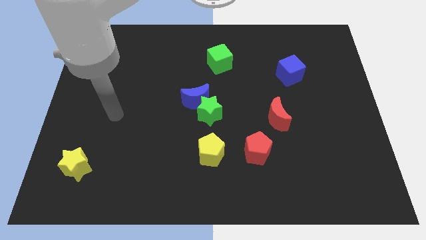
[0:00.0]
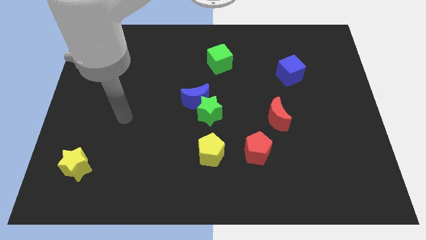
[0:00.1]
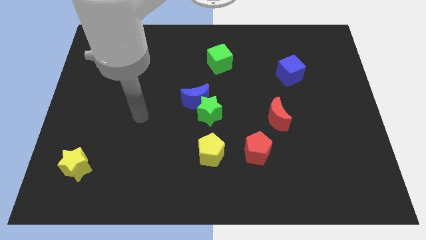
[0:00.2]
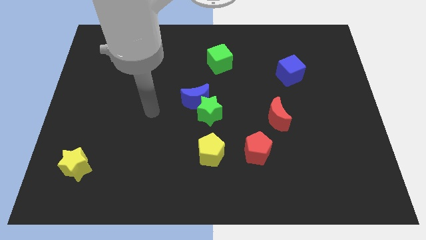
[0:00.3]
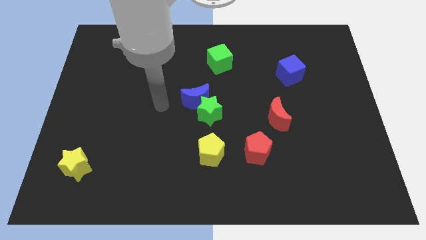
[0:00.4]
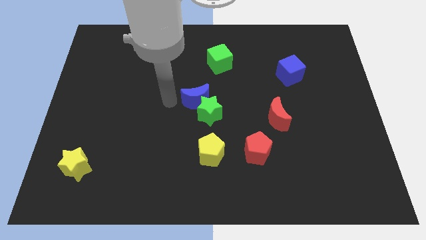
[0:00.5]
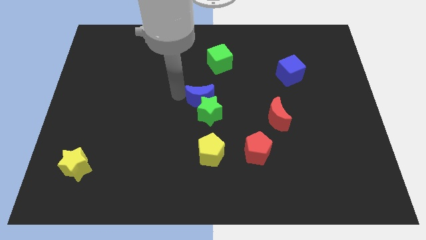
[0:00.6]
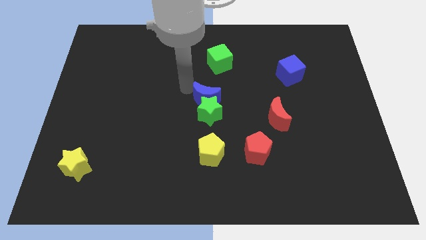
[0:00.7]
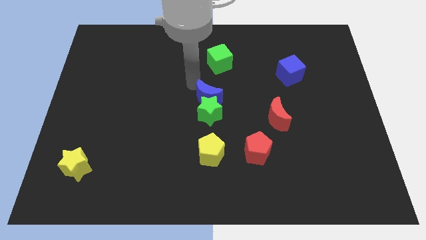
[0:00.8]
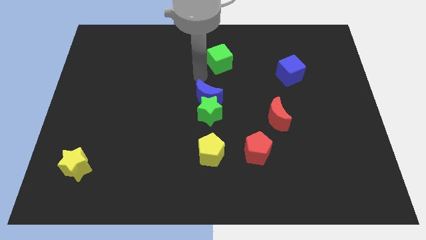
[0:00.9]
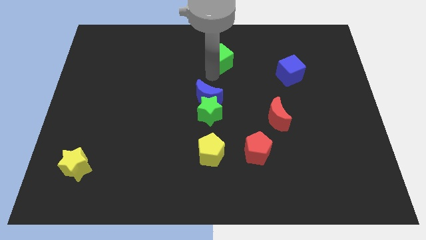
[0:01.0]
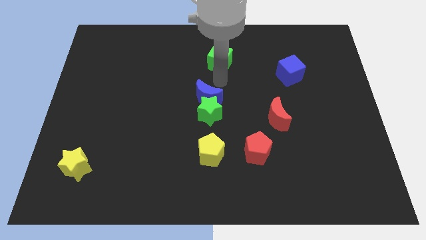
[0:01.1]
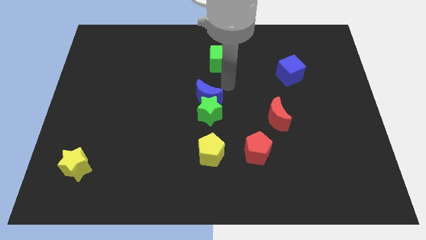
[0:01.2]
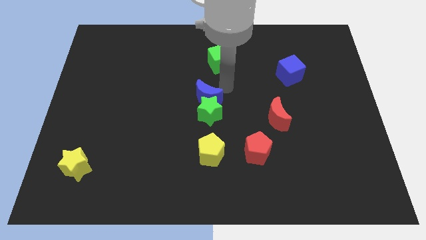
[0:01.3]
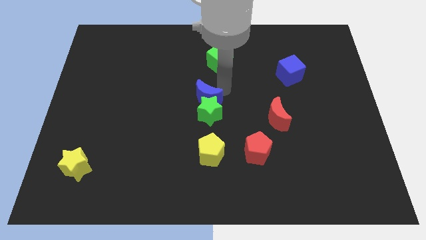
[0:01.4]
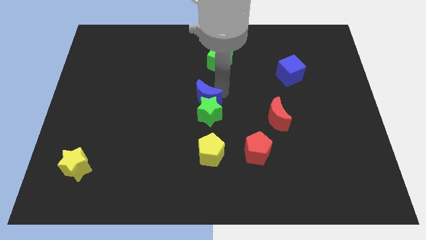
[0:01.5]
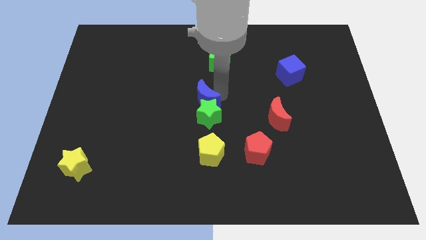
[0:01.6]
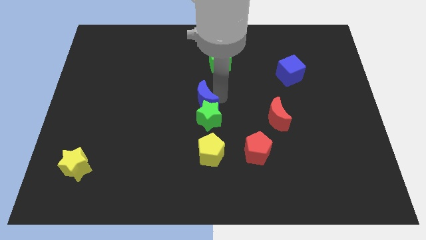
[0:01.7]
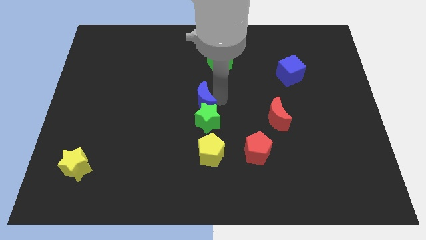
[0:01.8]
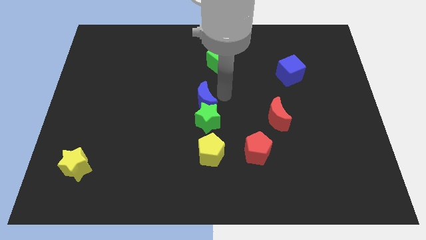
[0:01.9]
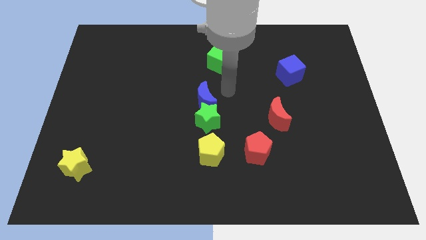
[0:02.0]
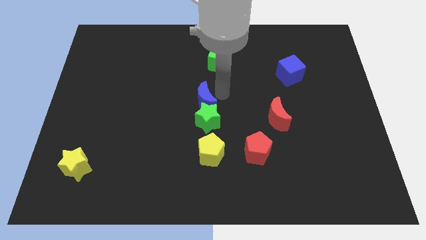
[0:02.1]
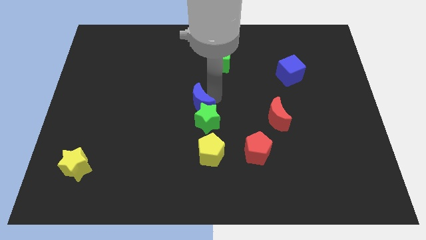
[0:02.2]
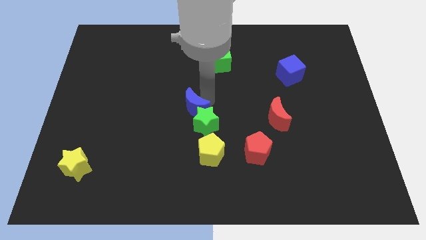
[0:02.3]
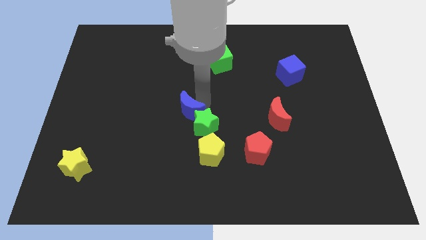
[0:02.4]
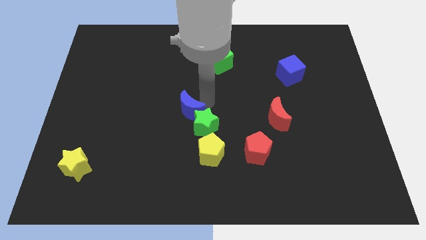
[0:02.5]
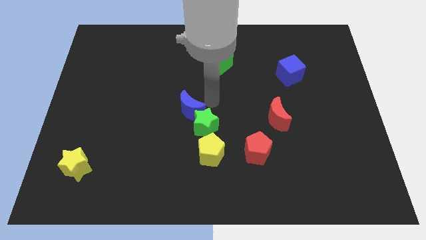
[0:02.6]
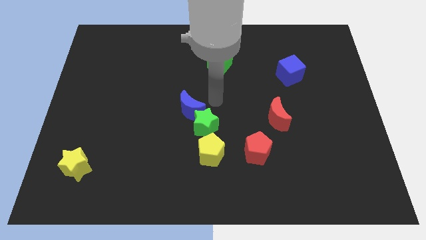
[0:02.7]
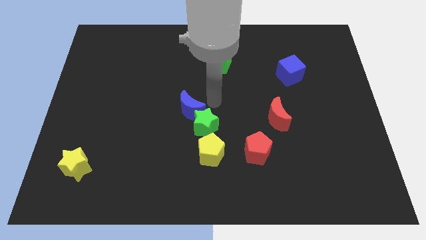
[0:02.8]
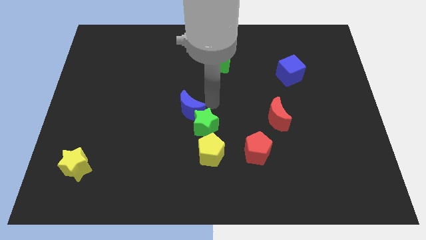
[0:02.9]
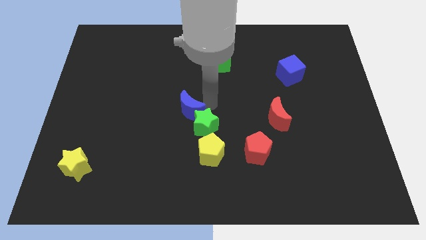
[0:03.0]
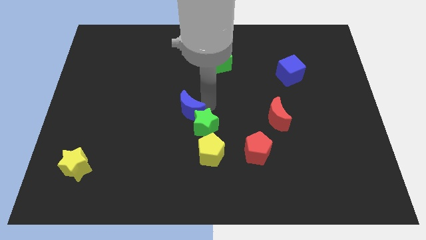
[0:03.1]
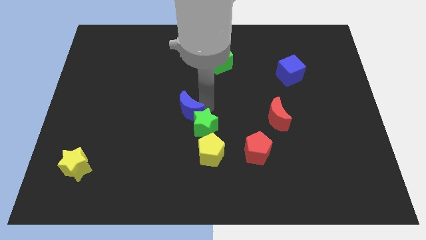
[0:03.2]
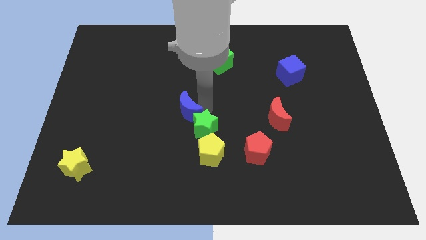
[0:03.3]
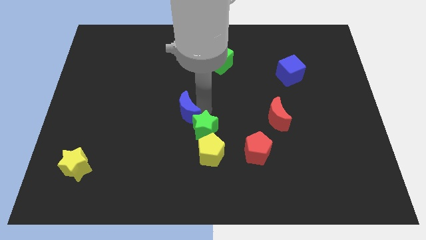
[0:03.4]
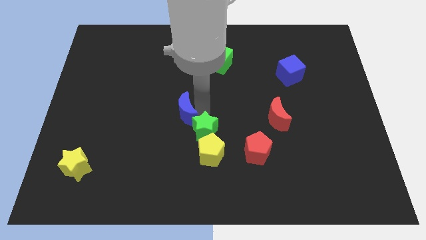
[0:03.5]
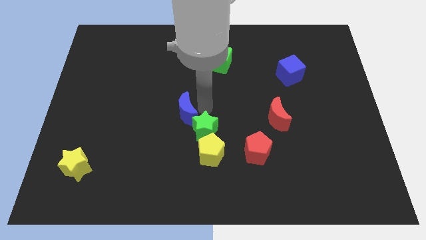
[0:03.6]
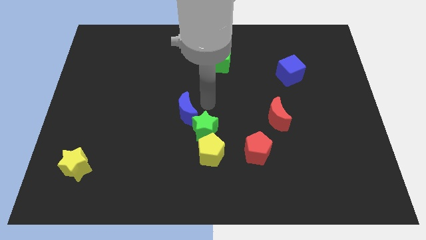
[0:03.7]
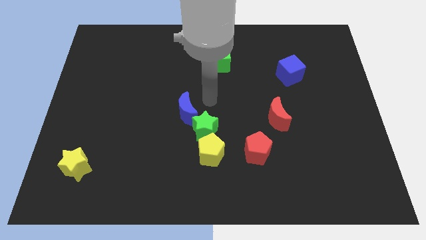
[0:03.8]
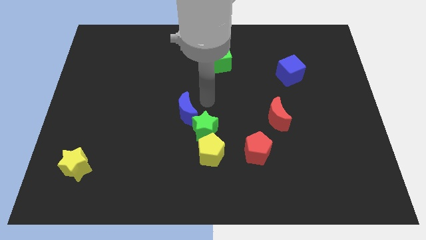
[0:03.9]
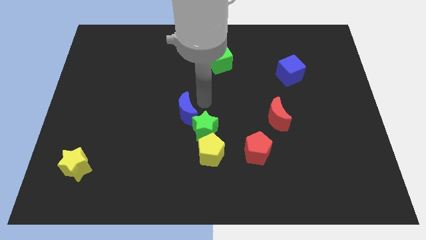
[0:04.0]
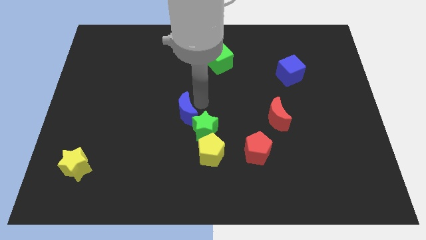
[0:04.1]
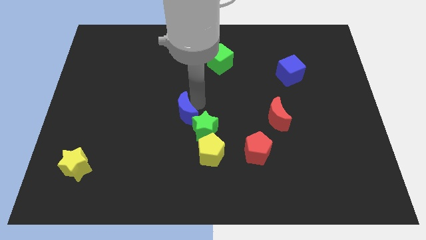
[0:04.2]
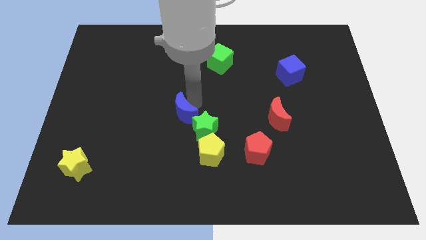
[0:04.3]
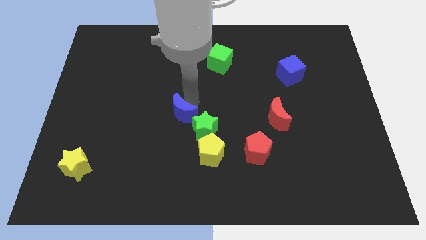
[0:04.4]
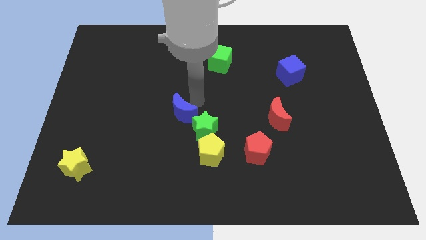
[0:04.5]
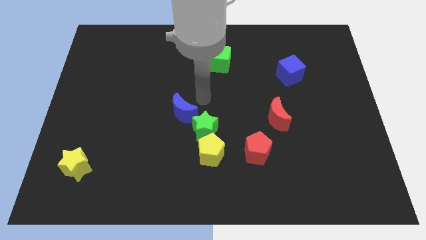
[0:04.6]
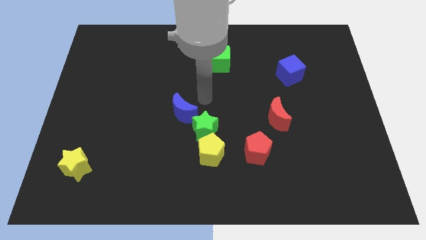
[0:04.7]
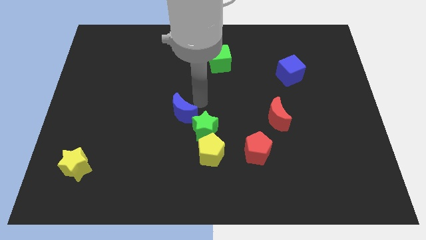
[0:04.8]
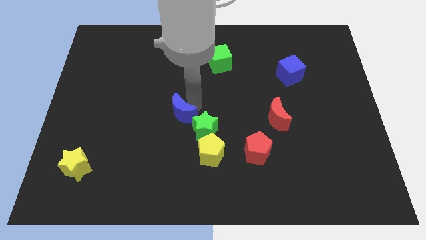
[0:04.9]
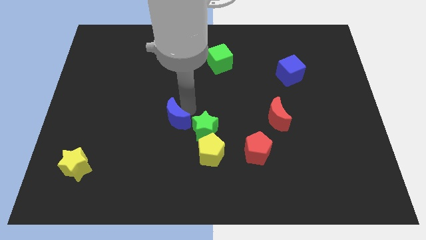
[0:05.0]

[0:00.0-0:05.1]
move the blue moon a little bit diagonally down and to the left

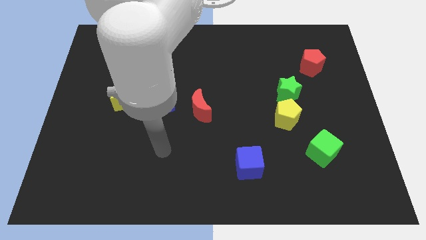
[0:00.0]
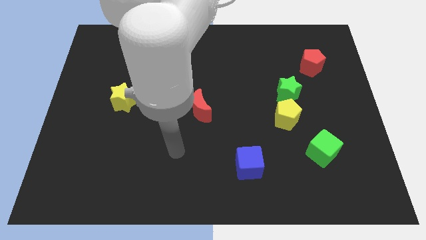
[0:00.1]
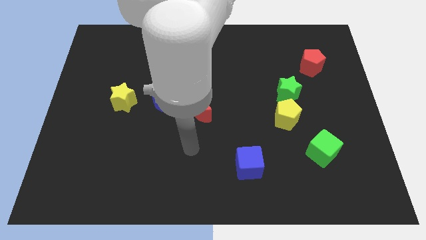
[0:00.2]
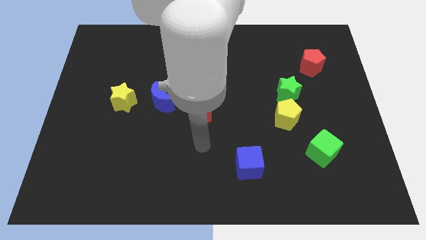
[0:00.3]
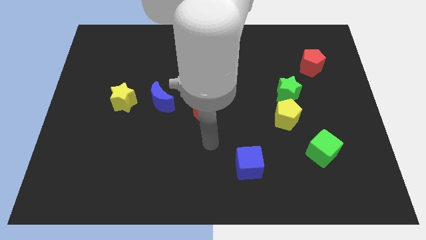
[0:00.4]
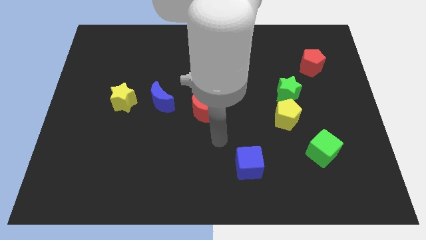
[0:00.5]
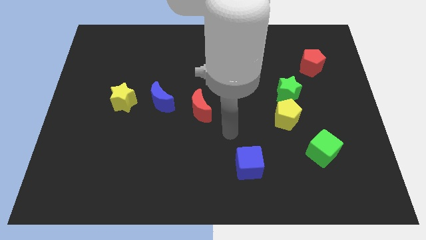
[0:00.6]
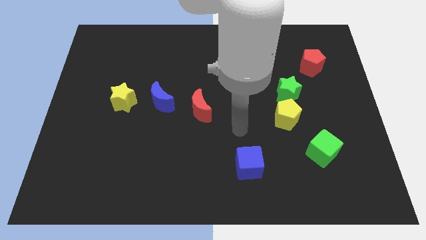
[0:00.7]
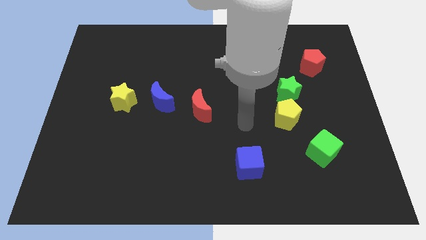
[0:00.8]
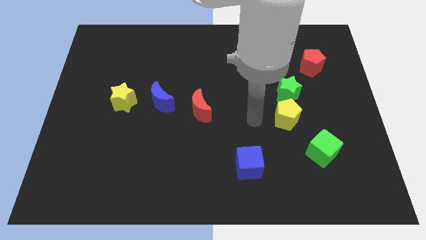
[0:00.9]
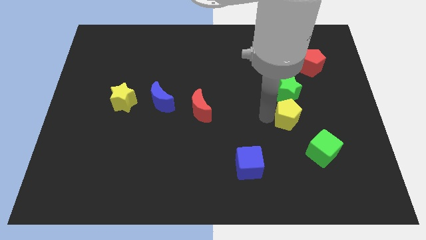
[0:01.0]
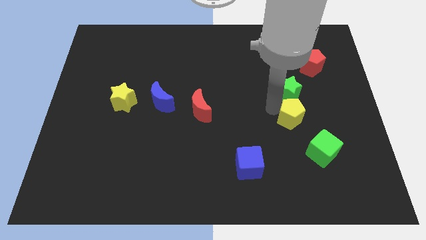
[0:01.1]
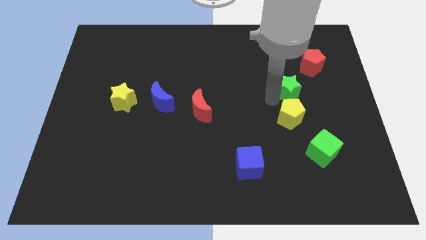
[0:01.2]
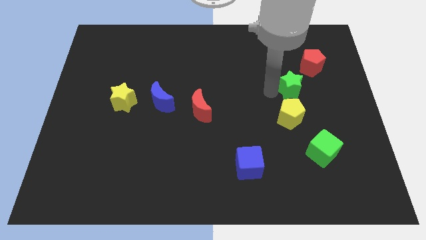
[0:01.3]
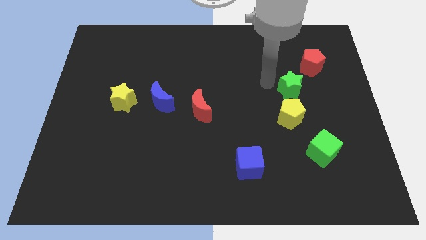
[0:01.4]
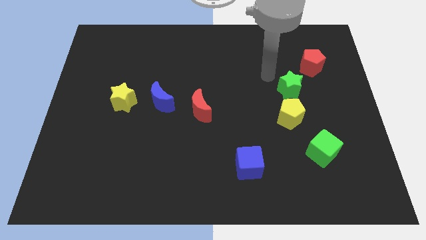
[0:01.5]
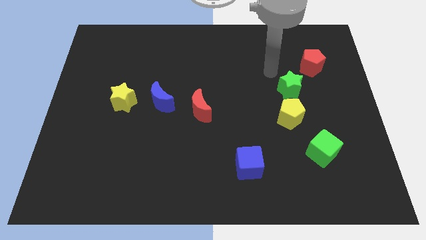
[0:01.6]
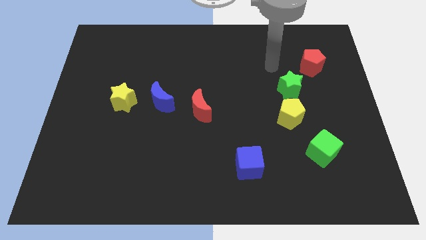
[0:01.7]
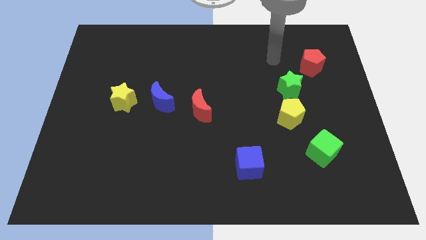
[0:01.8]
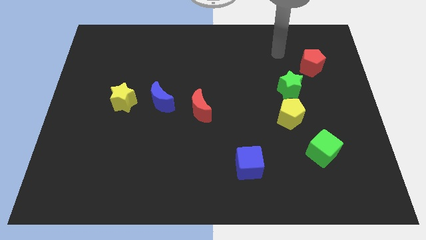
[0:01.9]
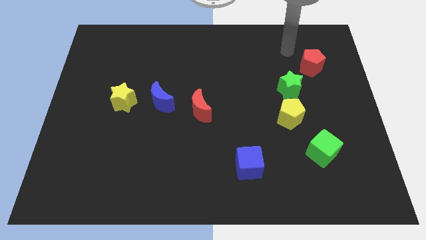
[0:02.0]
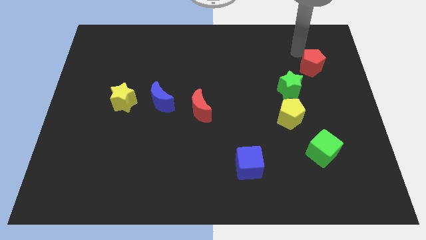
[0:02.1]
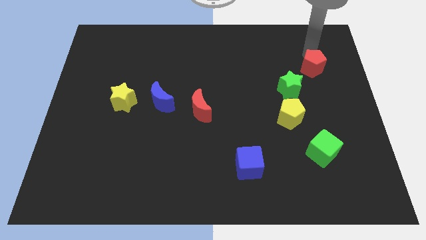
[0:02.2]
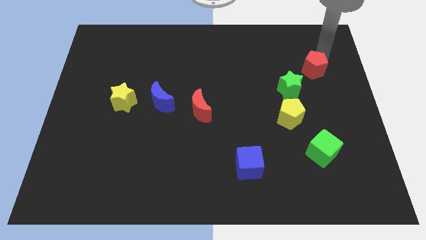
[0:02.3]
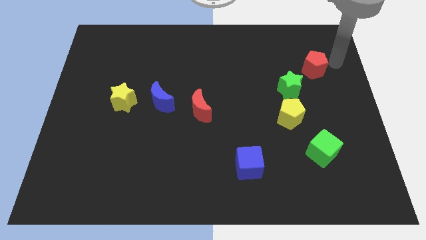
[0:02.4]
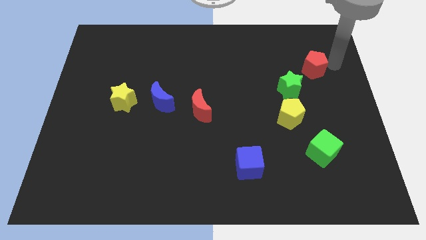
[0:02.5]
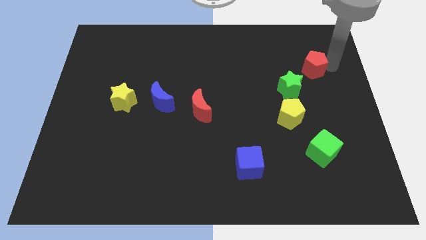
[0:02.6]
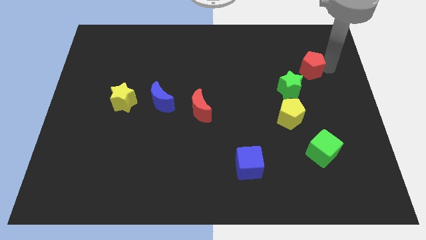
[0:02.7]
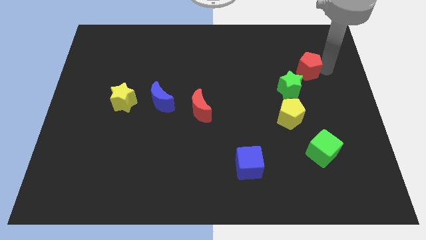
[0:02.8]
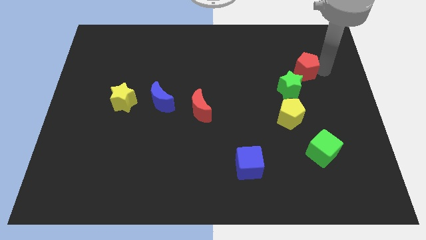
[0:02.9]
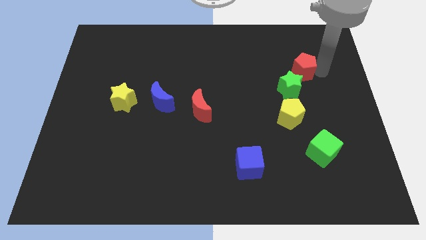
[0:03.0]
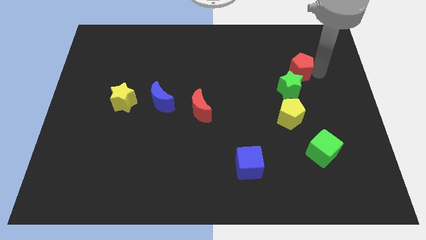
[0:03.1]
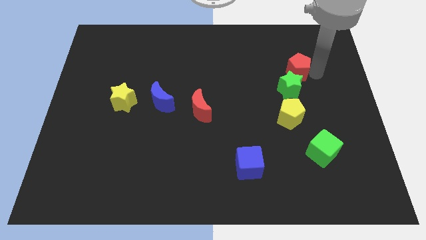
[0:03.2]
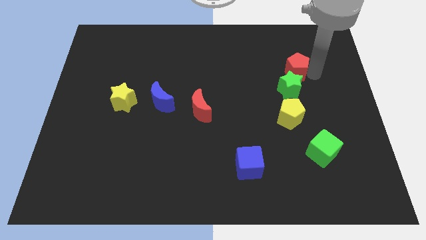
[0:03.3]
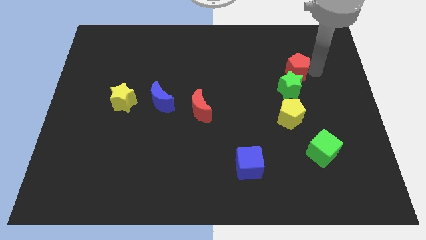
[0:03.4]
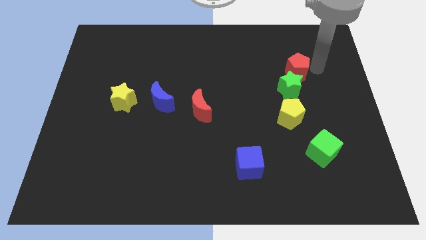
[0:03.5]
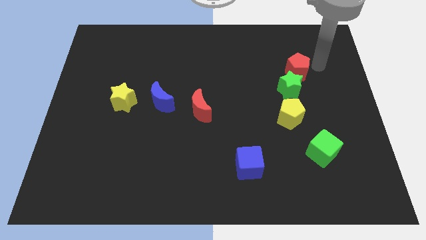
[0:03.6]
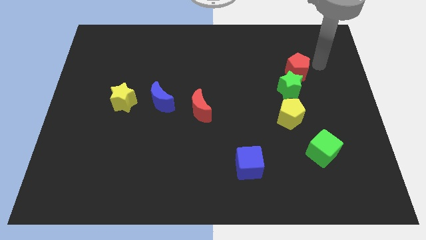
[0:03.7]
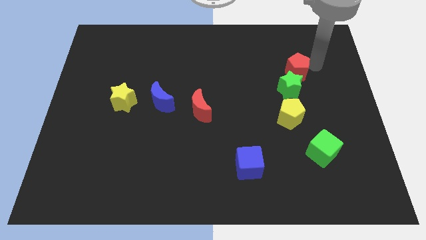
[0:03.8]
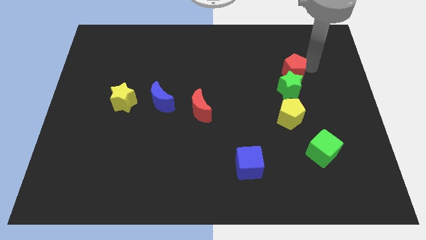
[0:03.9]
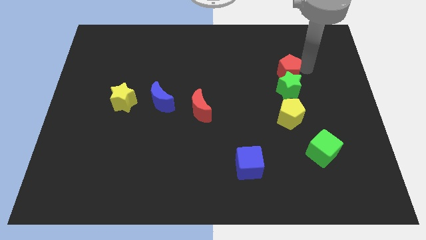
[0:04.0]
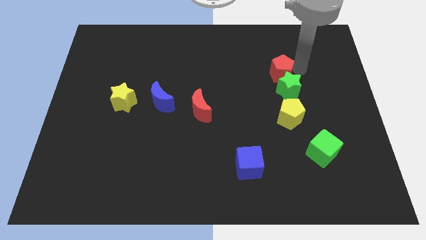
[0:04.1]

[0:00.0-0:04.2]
push the red pentagon diagonally downwards and to the left somewhat
